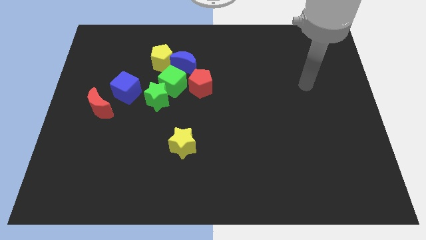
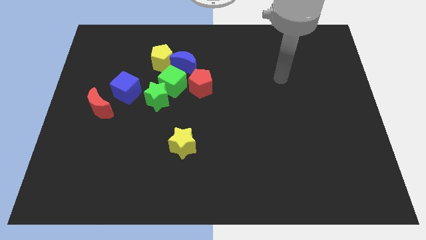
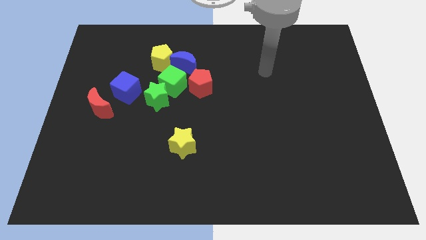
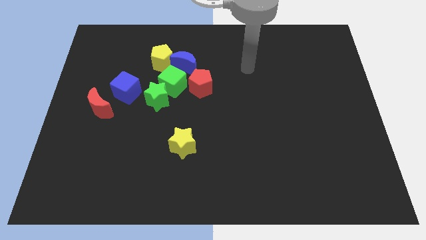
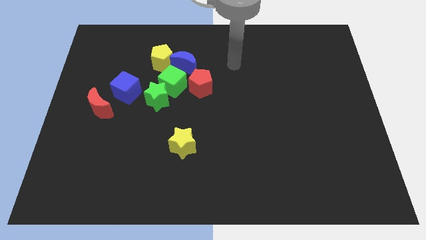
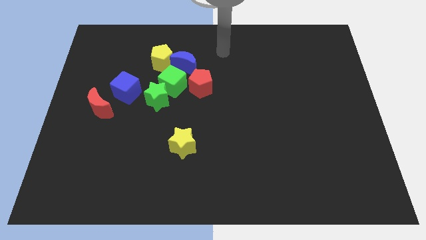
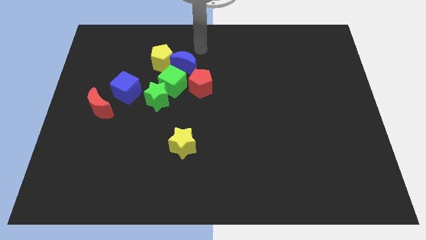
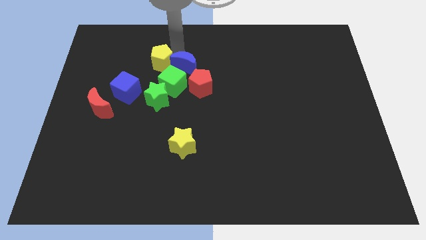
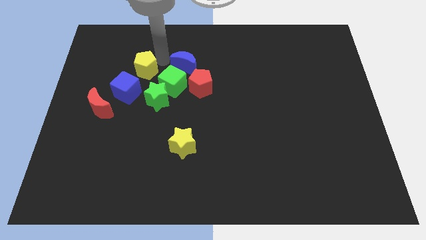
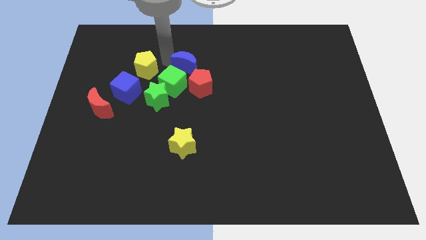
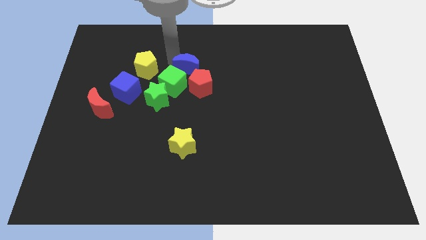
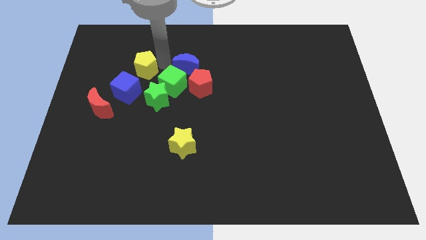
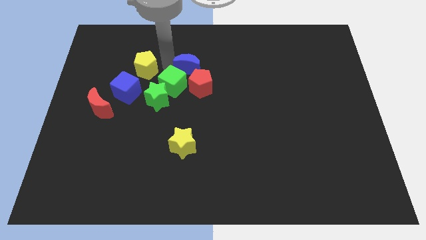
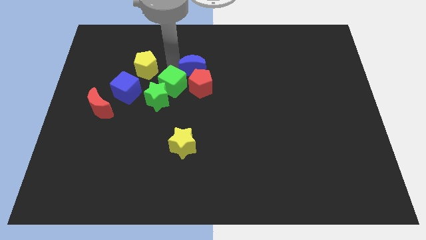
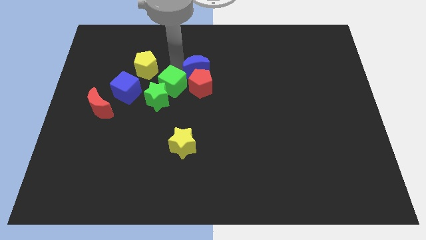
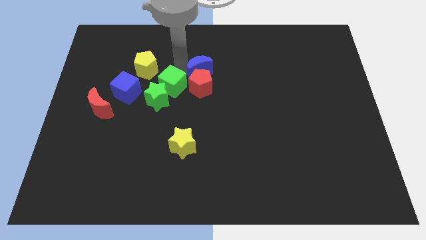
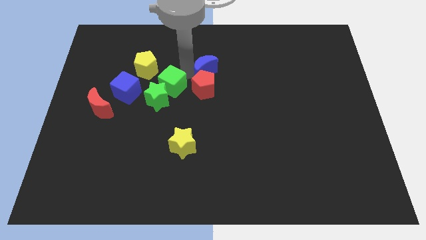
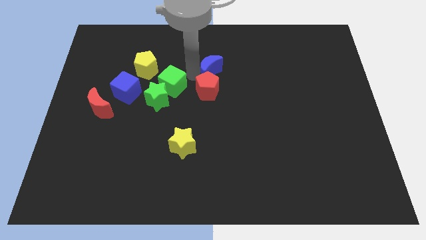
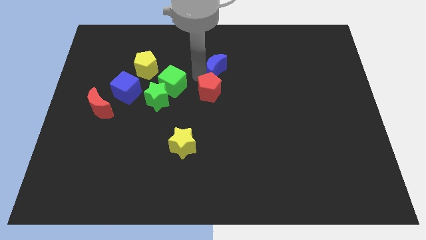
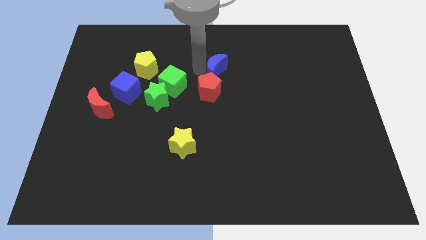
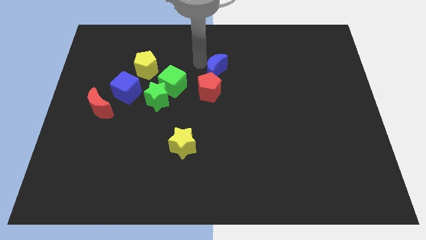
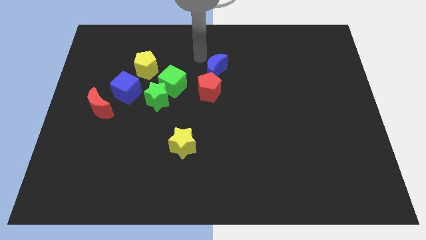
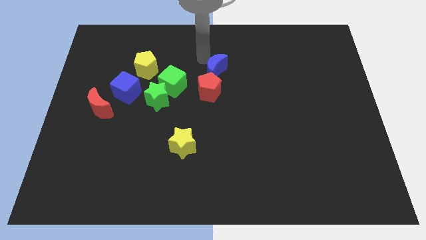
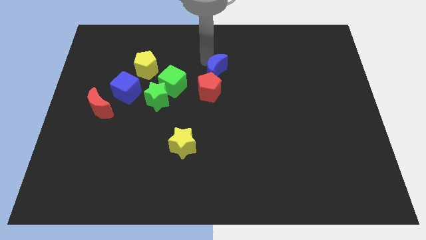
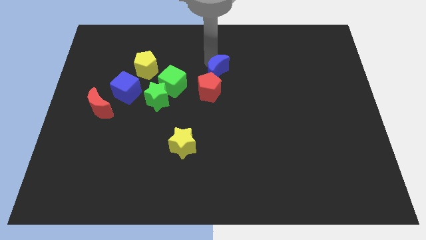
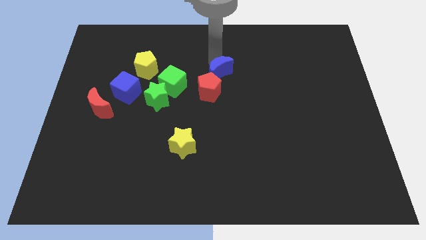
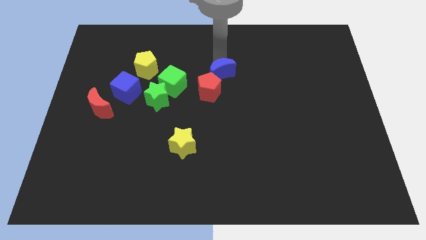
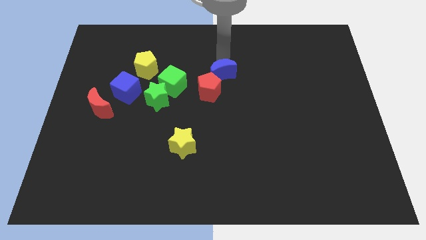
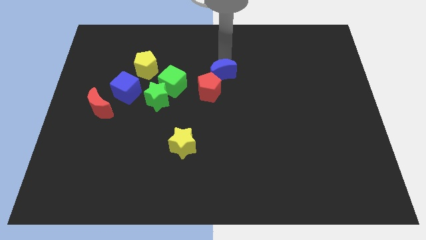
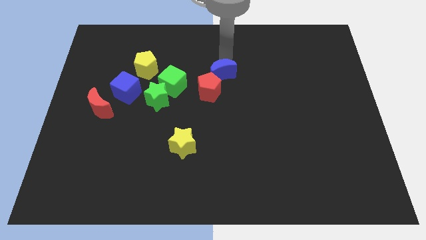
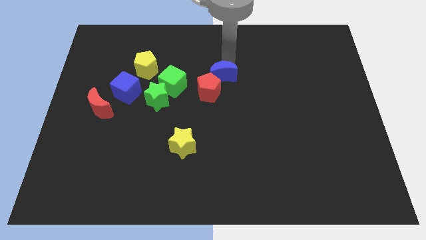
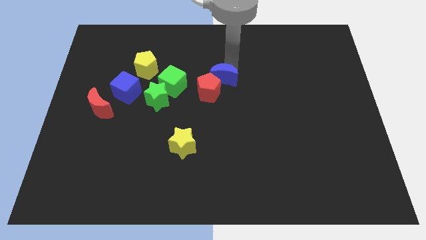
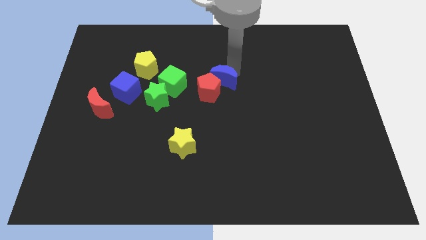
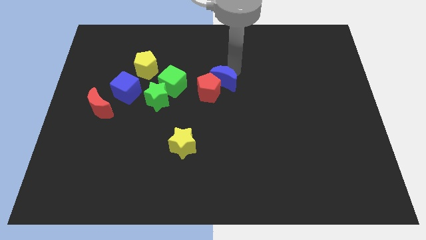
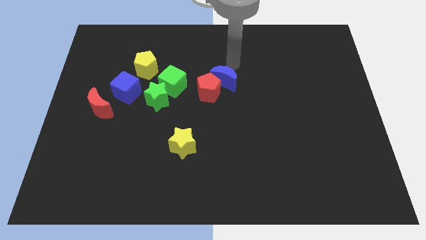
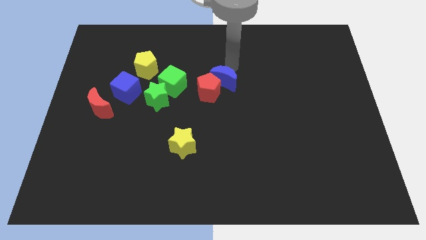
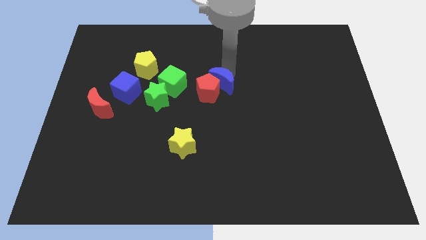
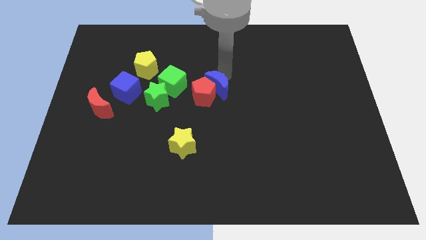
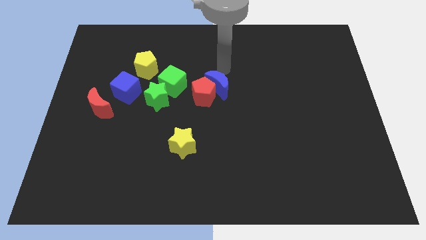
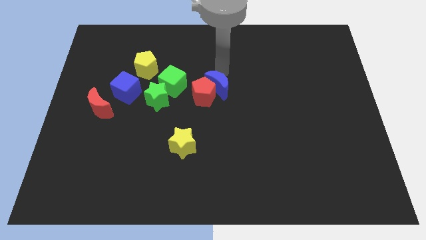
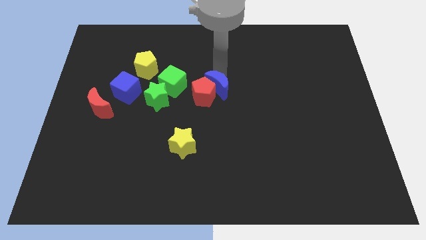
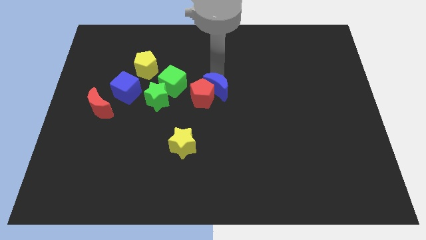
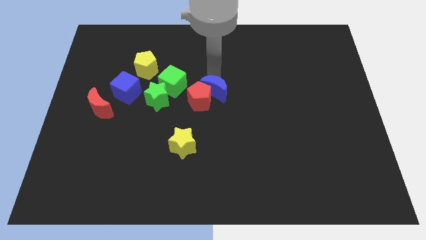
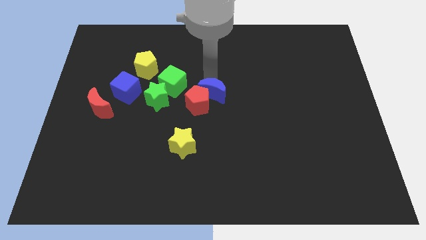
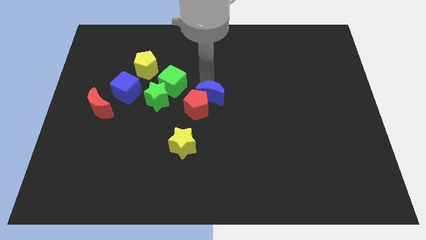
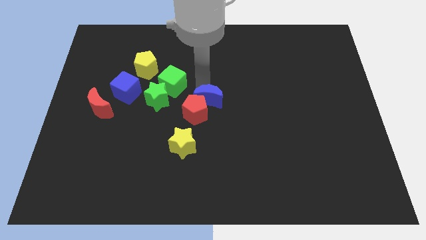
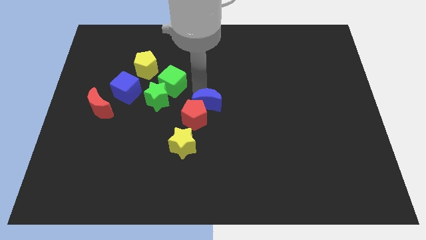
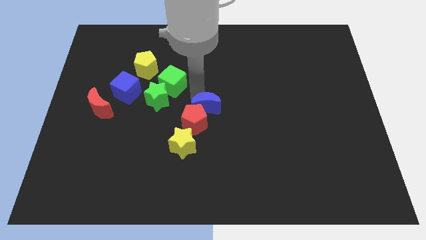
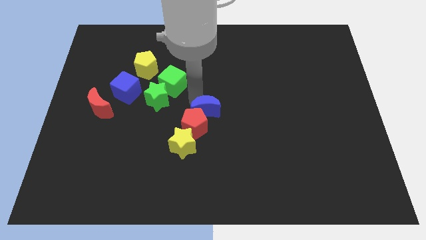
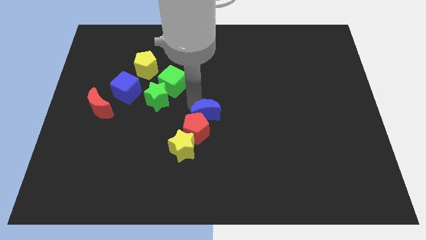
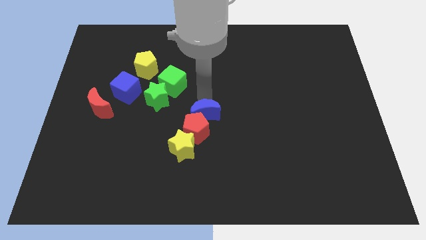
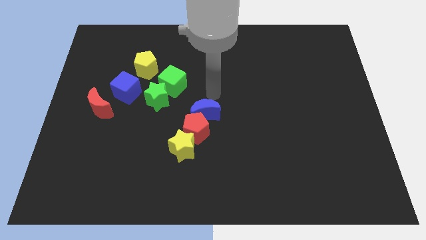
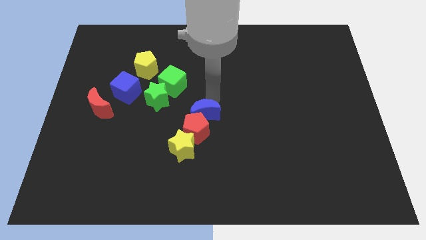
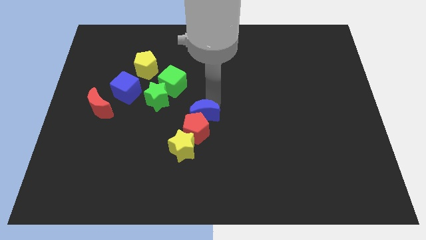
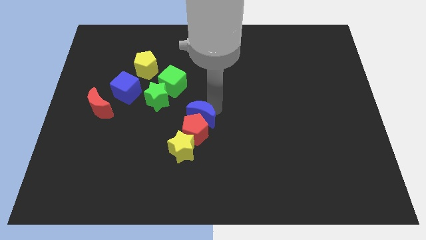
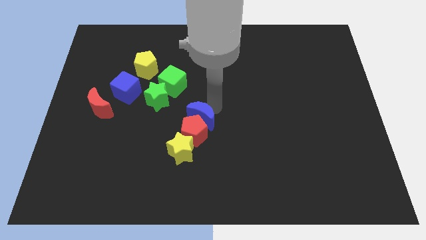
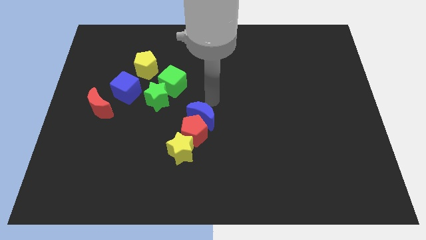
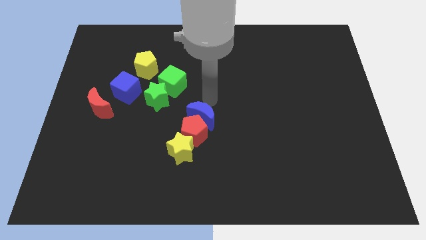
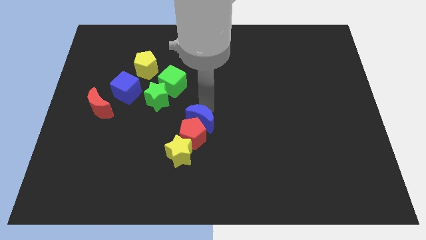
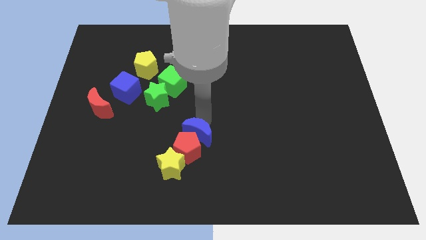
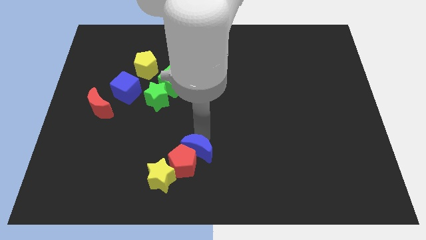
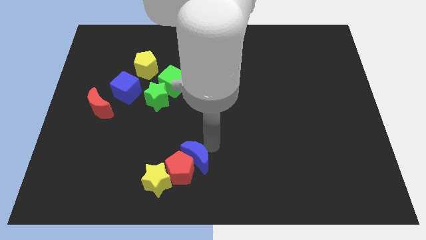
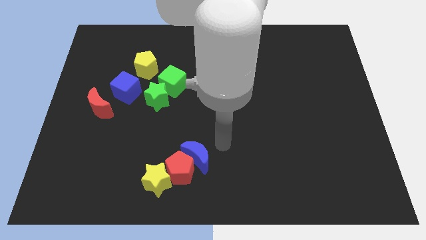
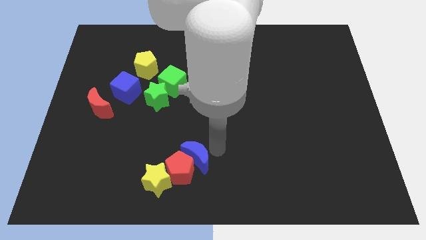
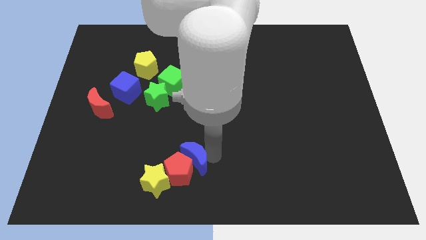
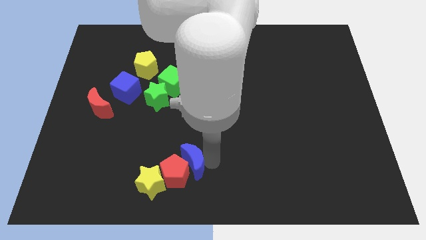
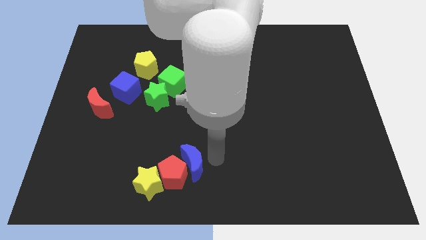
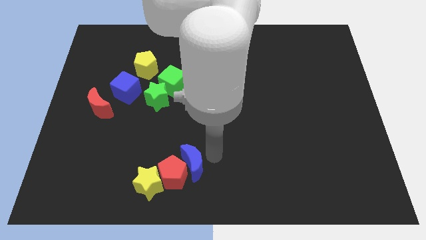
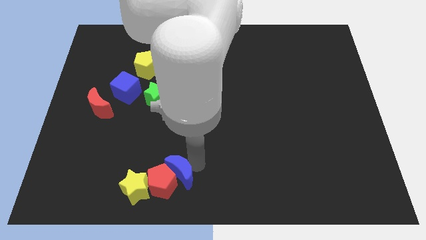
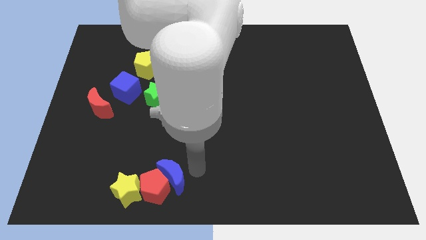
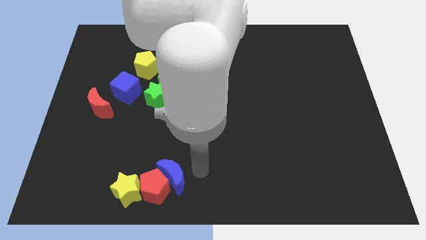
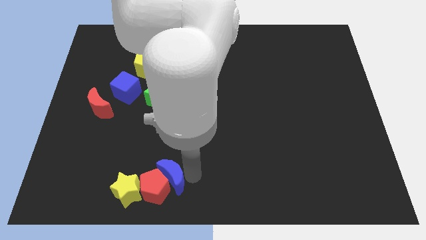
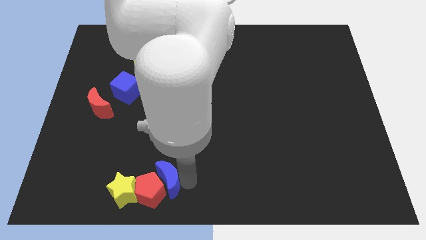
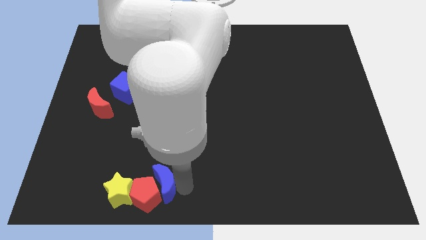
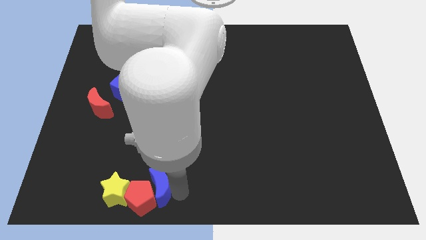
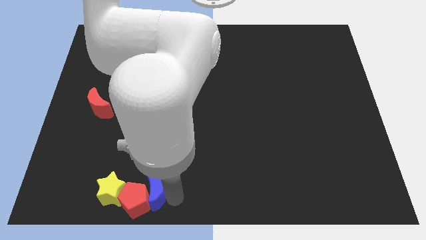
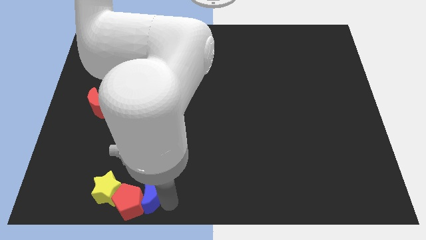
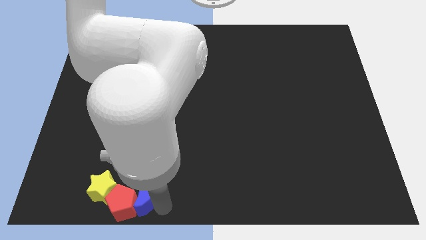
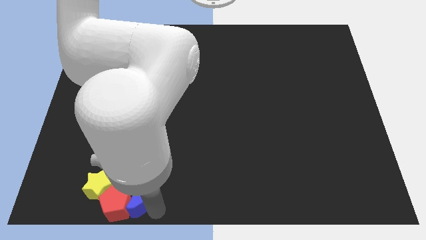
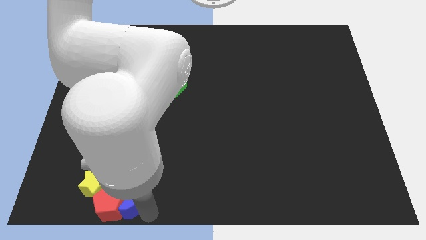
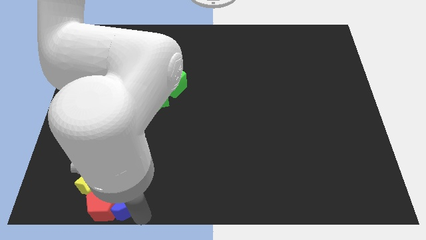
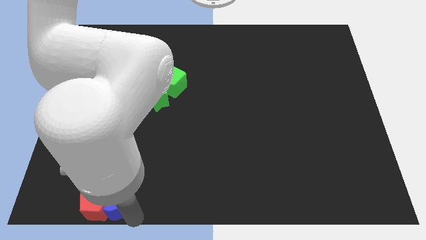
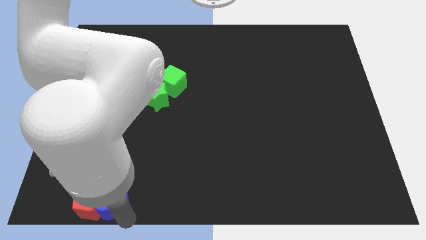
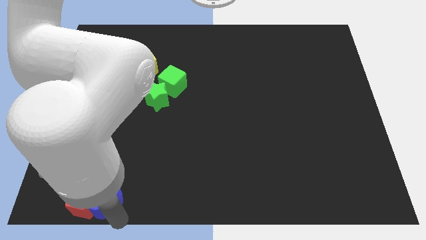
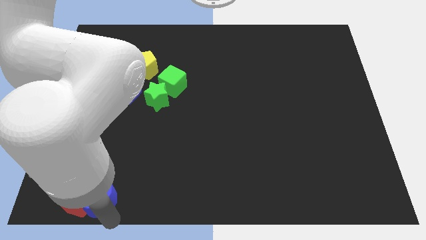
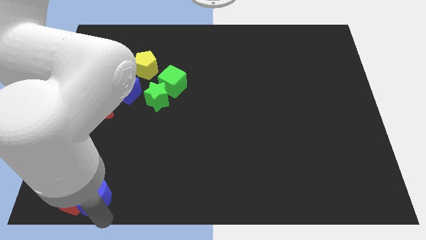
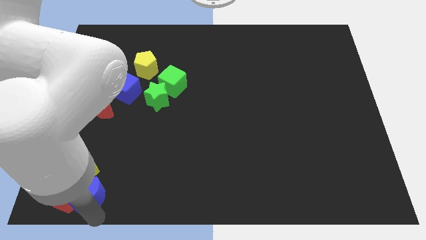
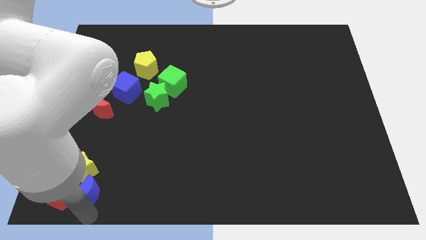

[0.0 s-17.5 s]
push the blue moon close to the yellow star
